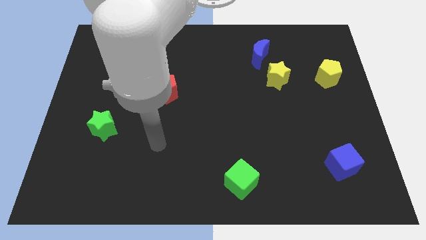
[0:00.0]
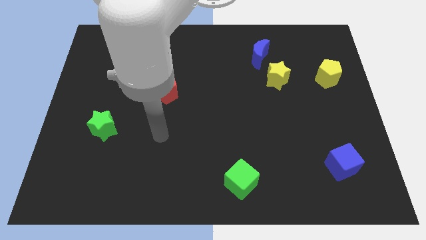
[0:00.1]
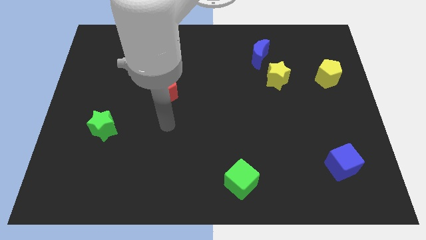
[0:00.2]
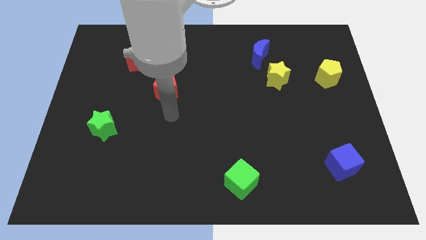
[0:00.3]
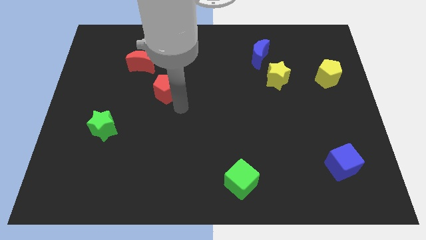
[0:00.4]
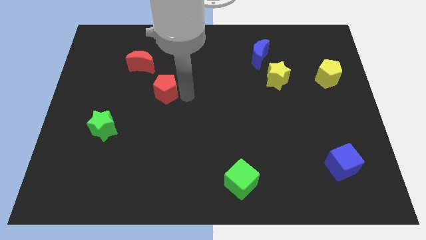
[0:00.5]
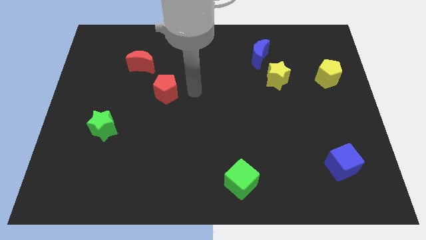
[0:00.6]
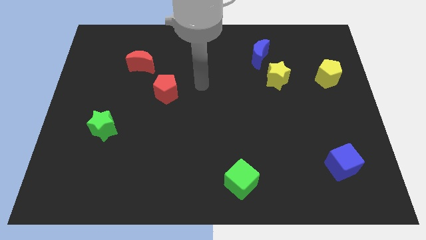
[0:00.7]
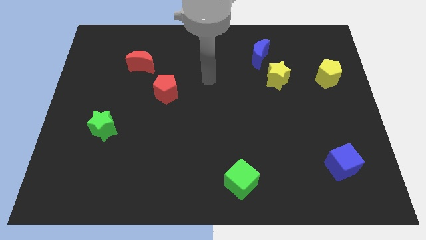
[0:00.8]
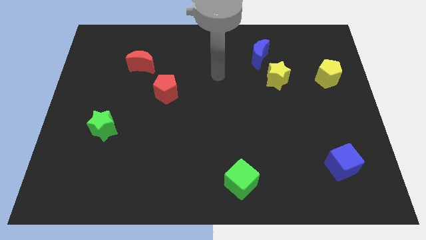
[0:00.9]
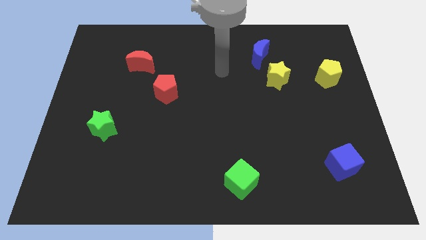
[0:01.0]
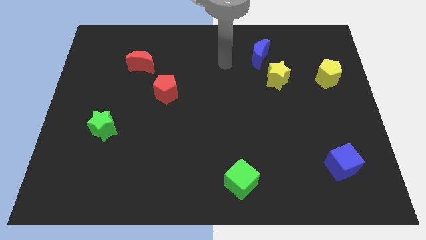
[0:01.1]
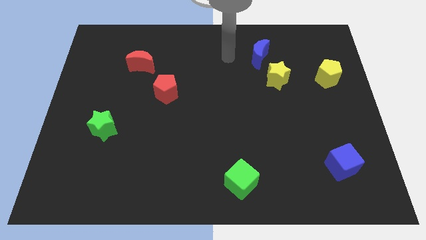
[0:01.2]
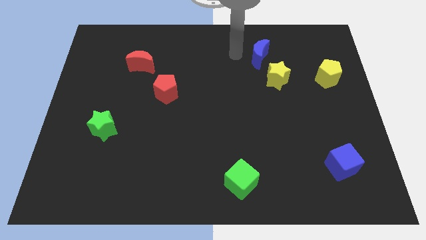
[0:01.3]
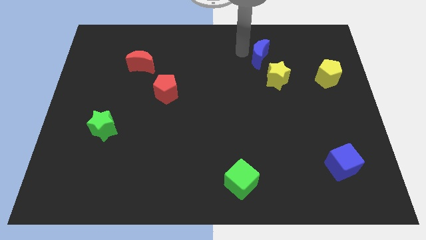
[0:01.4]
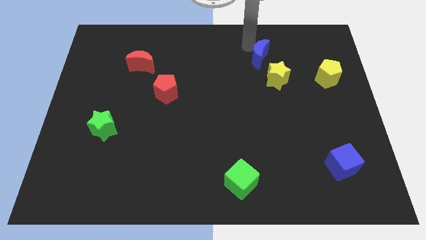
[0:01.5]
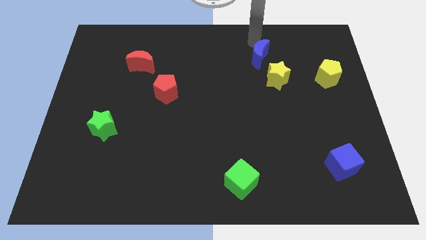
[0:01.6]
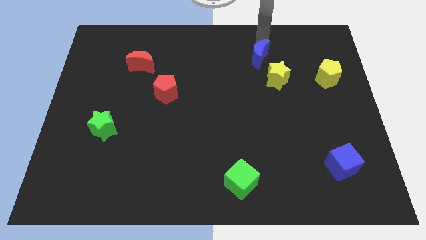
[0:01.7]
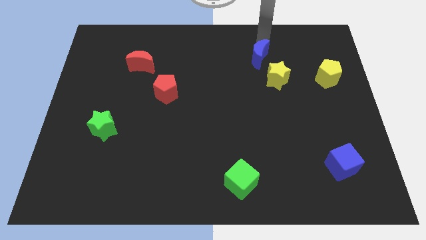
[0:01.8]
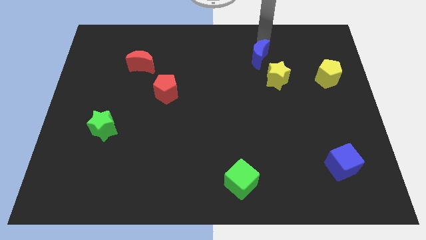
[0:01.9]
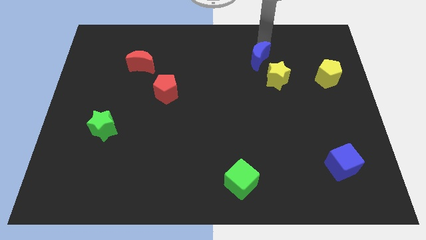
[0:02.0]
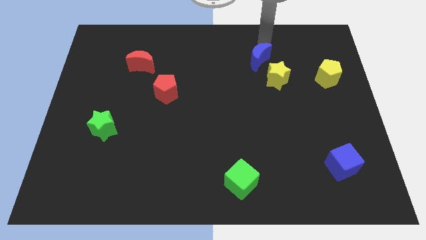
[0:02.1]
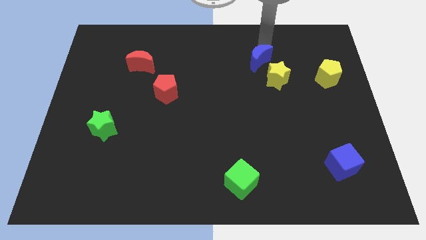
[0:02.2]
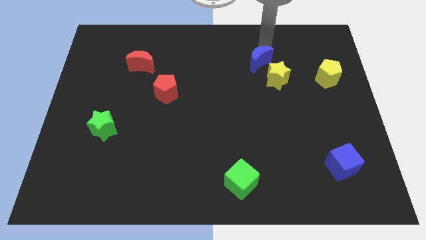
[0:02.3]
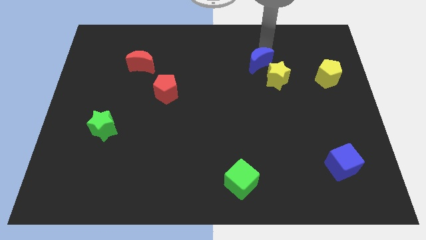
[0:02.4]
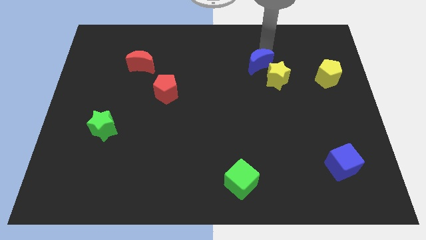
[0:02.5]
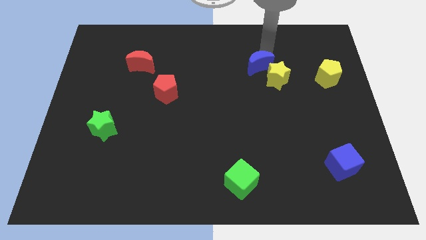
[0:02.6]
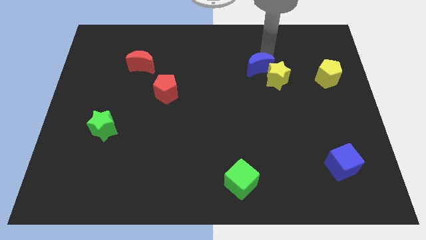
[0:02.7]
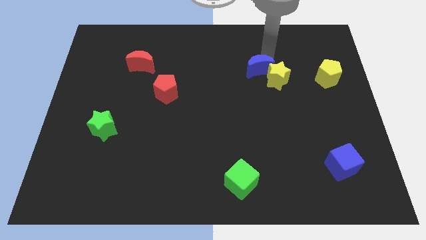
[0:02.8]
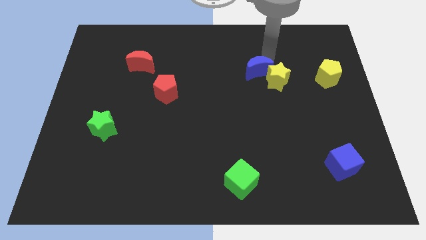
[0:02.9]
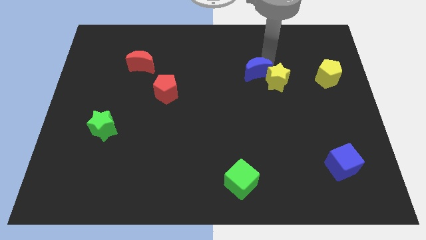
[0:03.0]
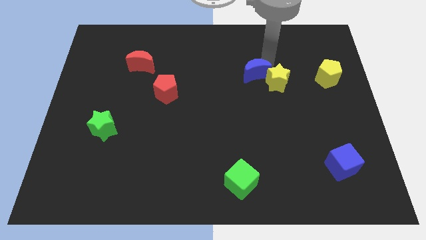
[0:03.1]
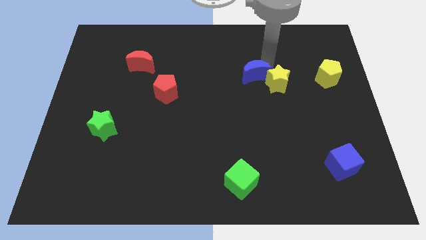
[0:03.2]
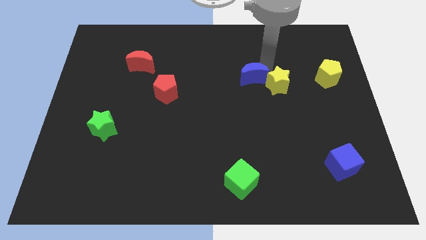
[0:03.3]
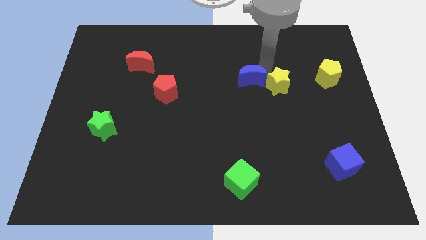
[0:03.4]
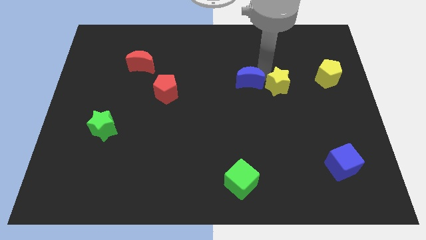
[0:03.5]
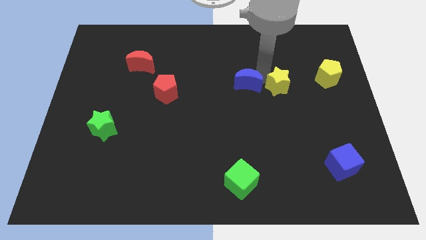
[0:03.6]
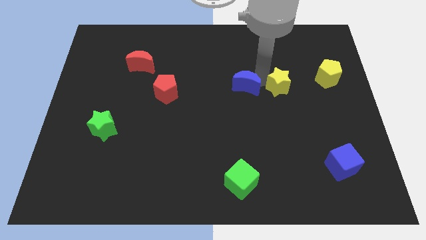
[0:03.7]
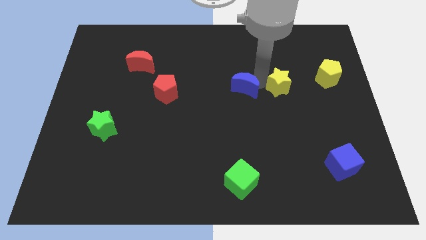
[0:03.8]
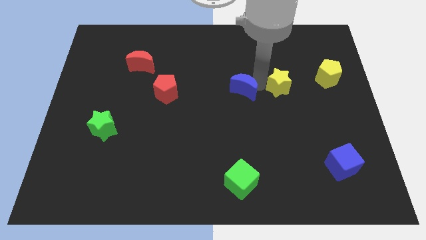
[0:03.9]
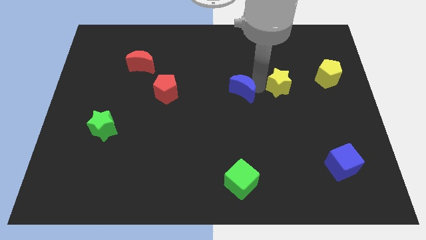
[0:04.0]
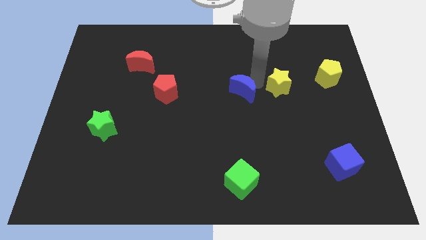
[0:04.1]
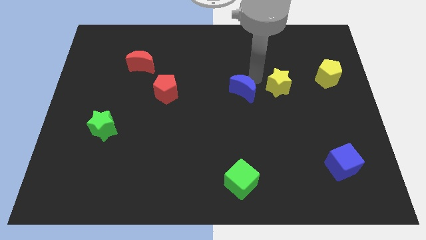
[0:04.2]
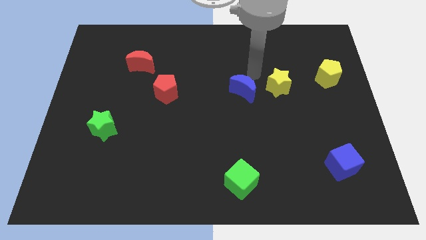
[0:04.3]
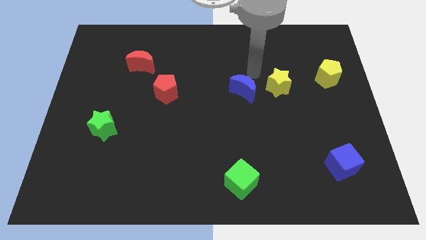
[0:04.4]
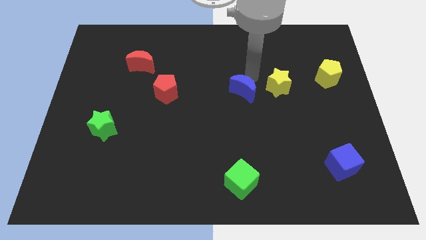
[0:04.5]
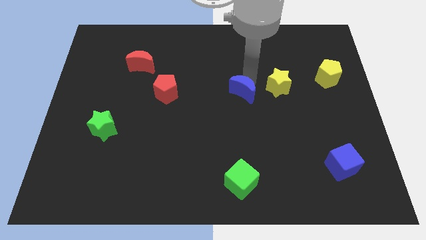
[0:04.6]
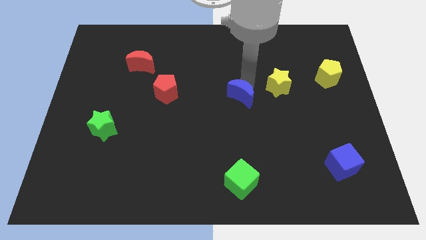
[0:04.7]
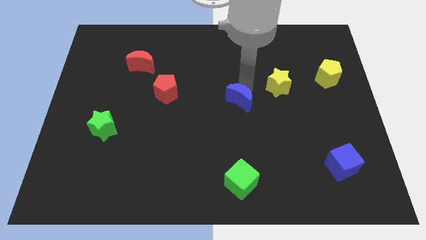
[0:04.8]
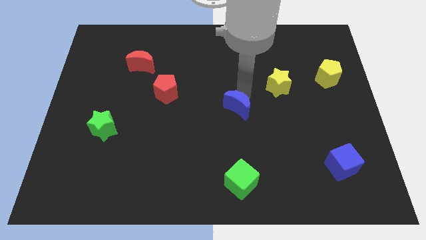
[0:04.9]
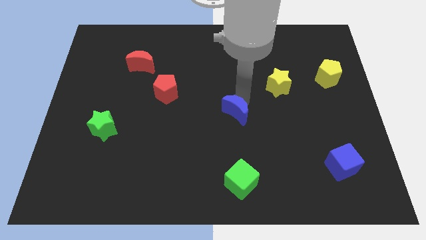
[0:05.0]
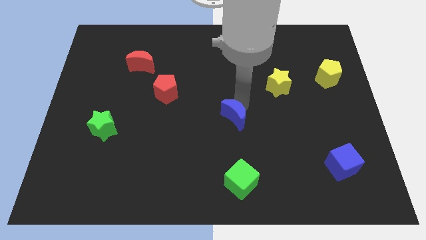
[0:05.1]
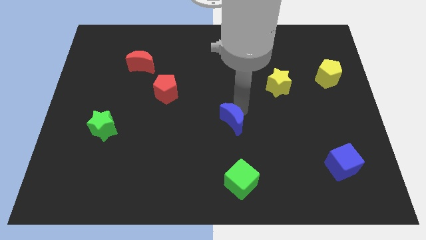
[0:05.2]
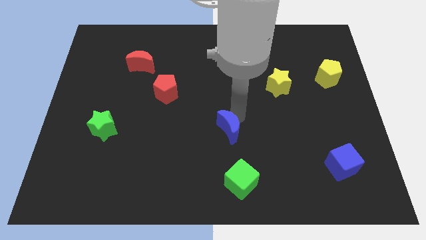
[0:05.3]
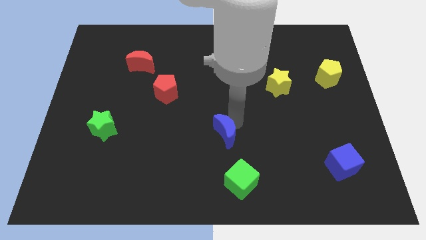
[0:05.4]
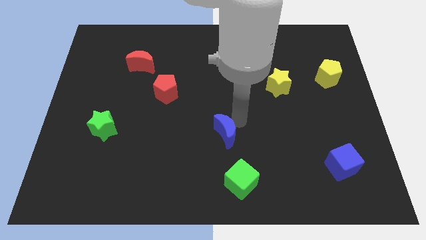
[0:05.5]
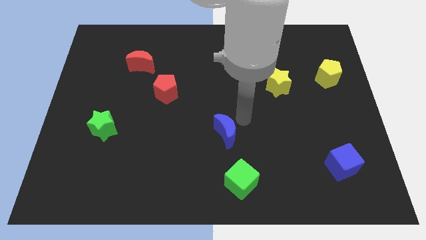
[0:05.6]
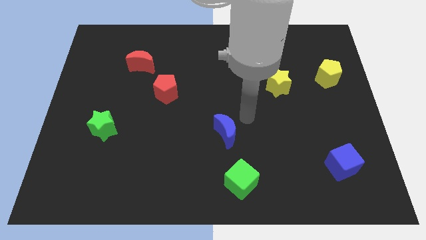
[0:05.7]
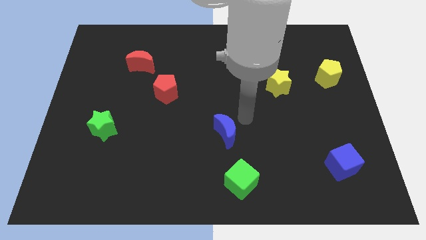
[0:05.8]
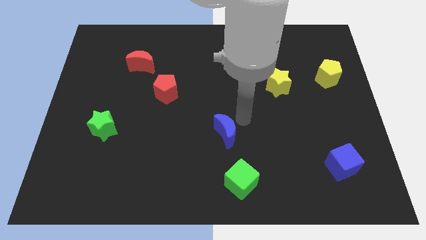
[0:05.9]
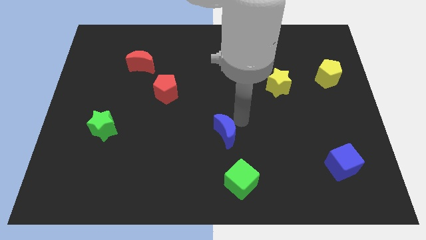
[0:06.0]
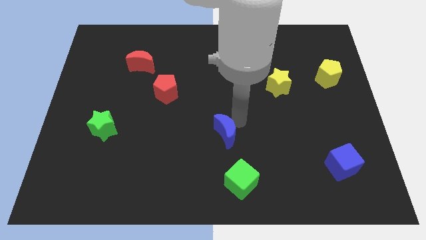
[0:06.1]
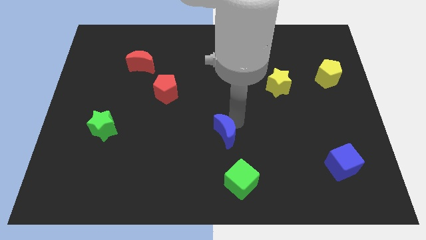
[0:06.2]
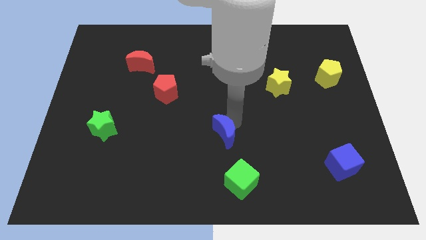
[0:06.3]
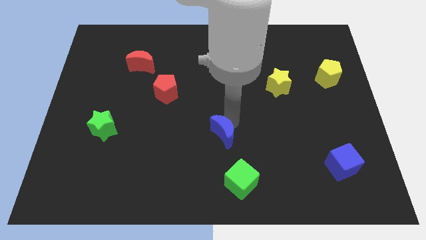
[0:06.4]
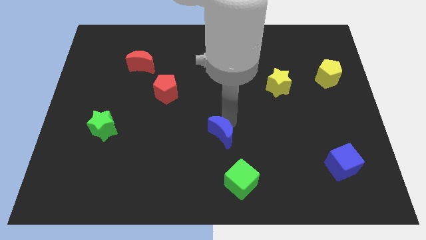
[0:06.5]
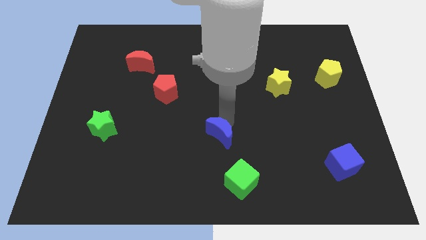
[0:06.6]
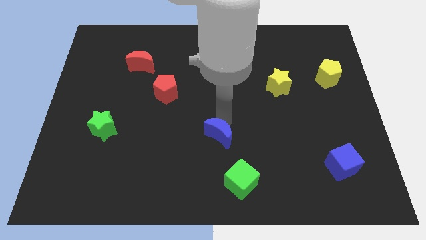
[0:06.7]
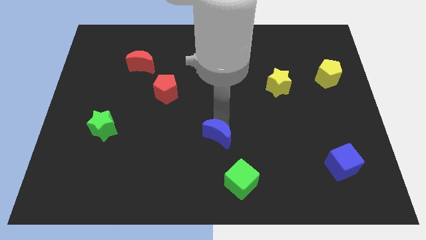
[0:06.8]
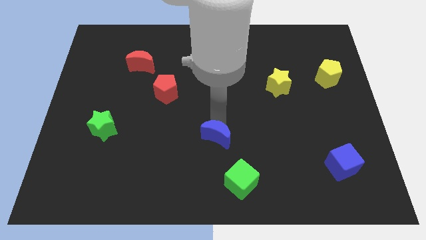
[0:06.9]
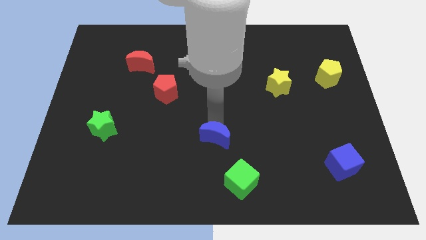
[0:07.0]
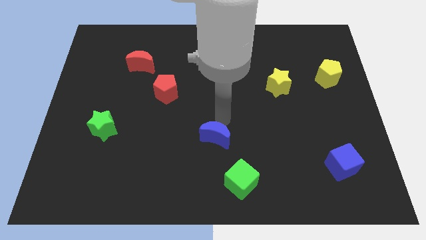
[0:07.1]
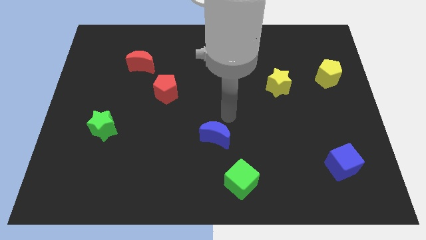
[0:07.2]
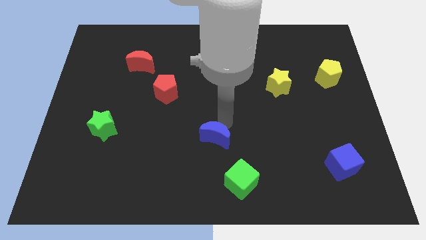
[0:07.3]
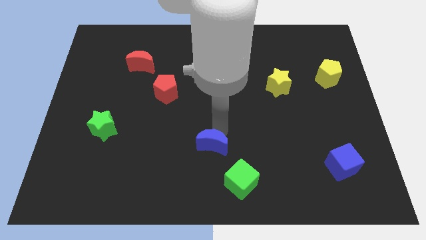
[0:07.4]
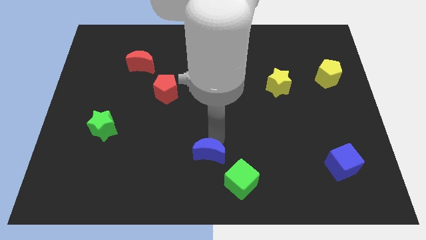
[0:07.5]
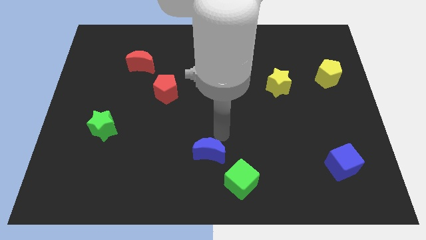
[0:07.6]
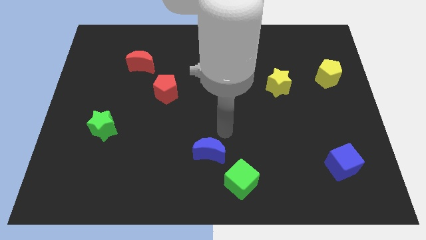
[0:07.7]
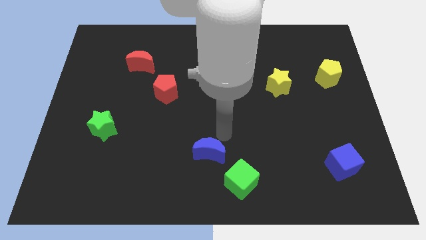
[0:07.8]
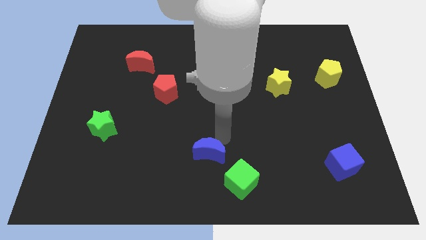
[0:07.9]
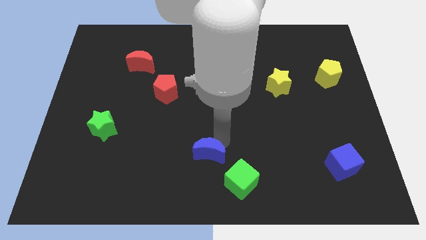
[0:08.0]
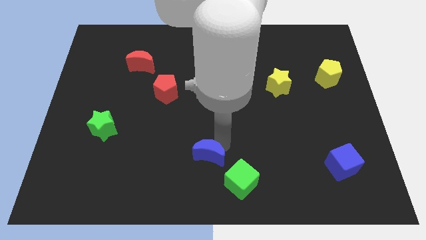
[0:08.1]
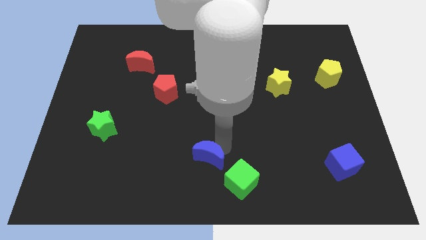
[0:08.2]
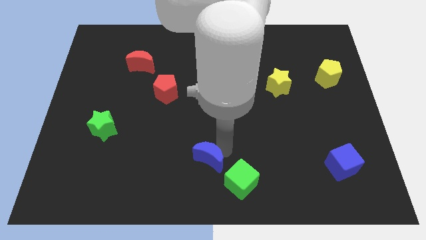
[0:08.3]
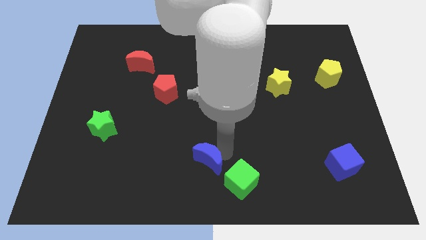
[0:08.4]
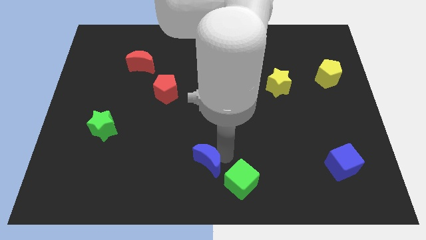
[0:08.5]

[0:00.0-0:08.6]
move the blue moon just left of the green cube
